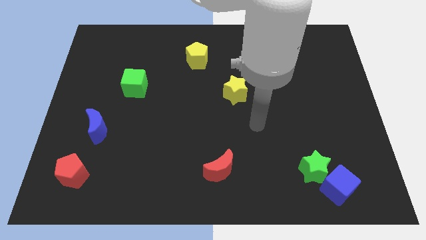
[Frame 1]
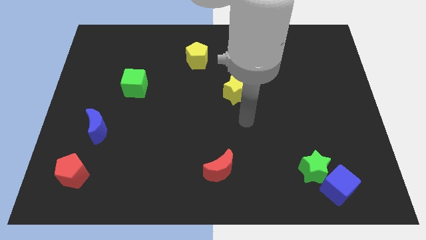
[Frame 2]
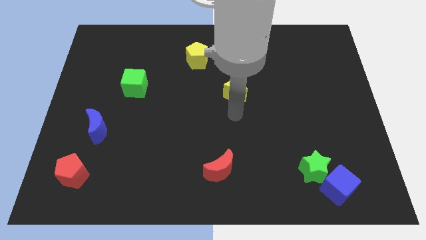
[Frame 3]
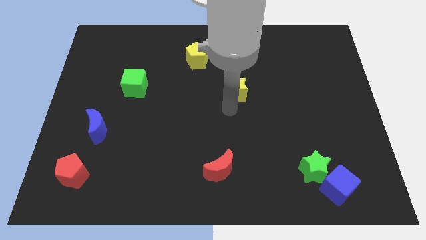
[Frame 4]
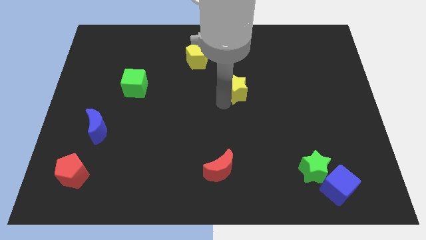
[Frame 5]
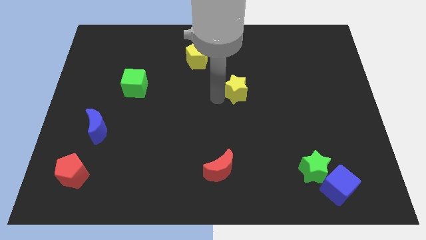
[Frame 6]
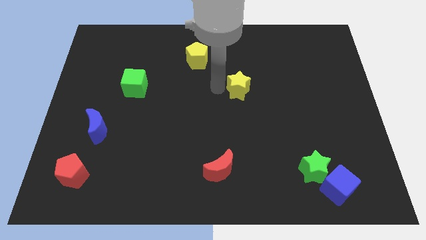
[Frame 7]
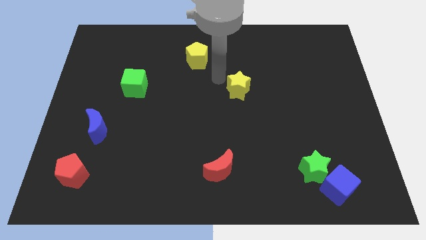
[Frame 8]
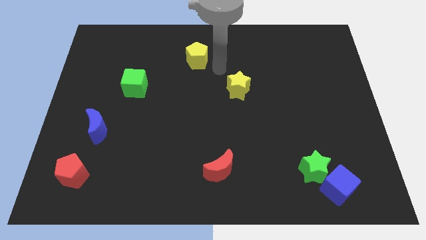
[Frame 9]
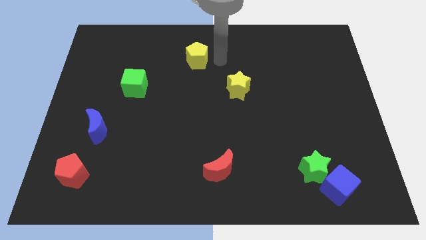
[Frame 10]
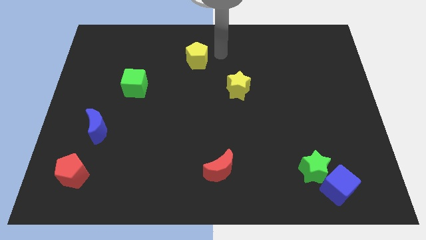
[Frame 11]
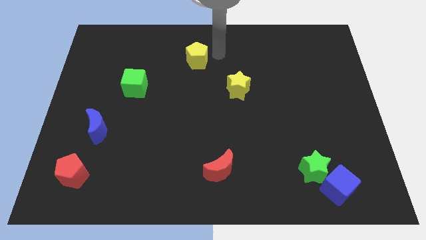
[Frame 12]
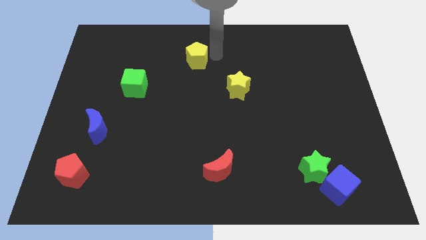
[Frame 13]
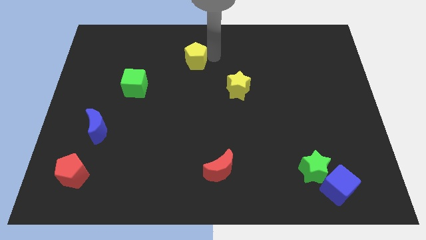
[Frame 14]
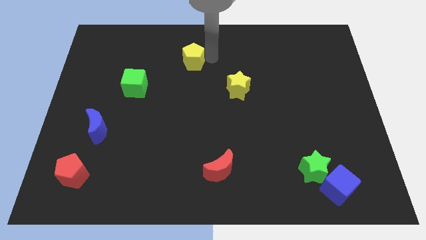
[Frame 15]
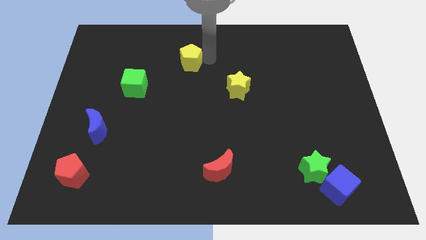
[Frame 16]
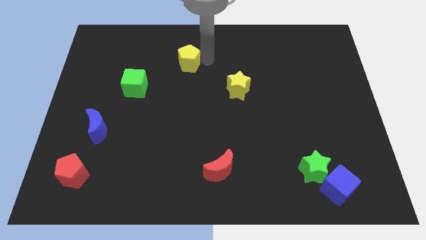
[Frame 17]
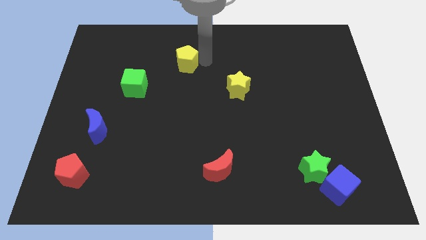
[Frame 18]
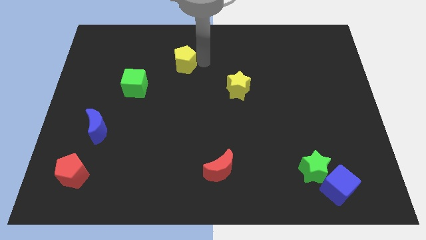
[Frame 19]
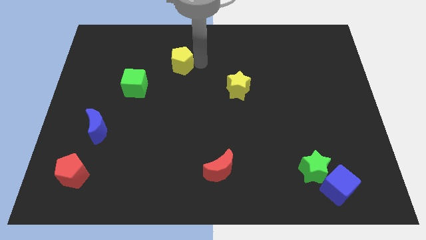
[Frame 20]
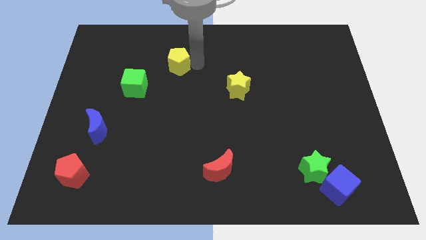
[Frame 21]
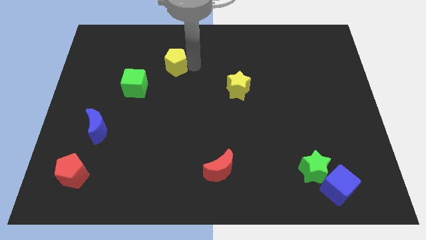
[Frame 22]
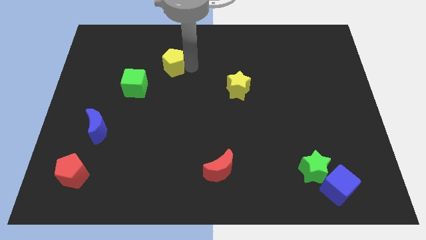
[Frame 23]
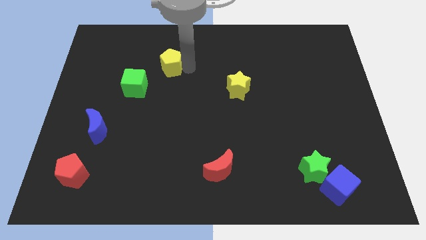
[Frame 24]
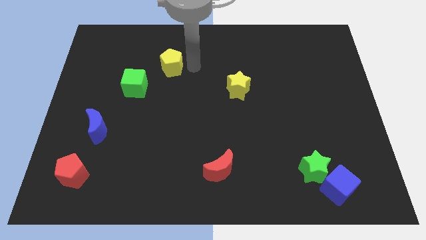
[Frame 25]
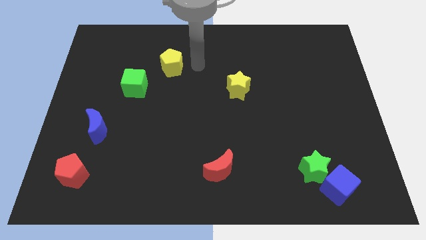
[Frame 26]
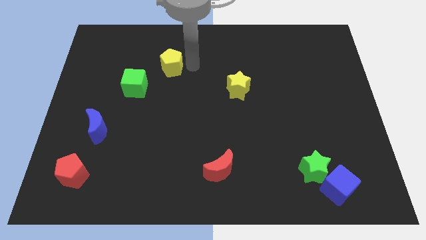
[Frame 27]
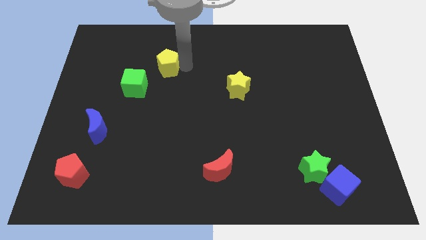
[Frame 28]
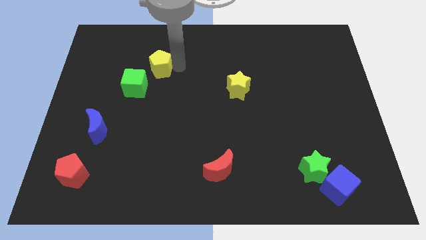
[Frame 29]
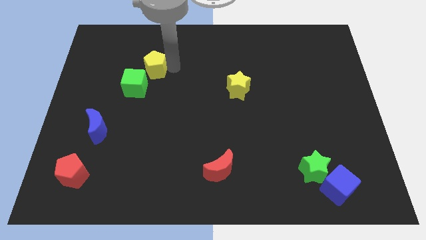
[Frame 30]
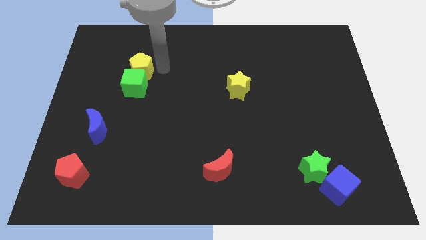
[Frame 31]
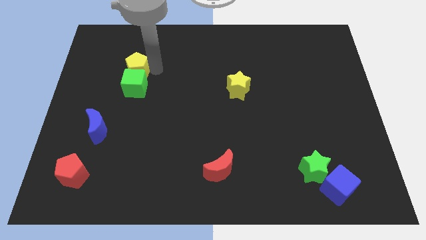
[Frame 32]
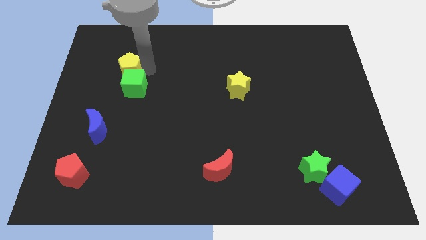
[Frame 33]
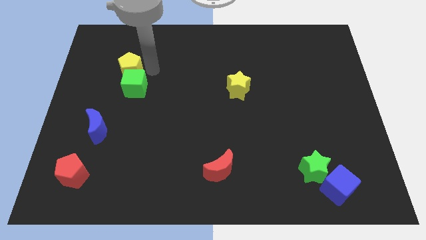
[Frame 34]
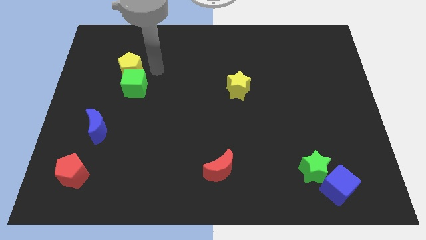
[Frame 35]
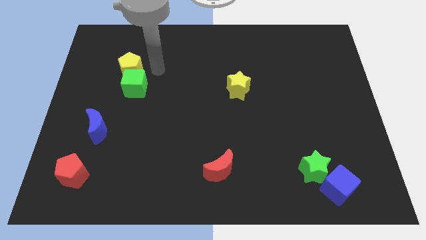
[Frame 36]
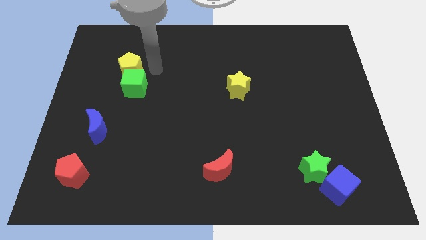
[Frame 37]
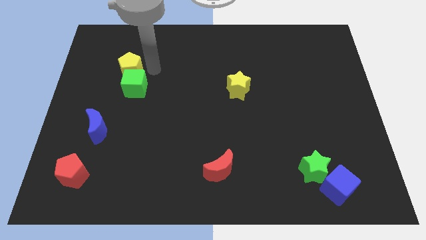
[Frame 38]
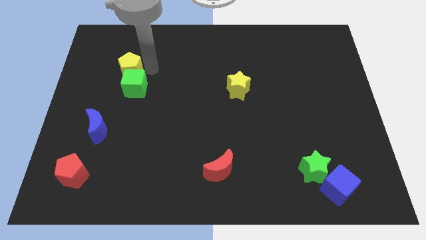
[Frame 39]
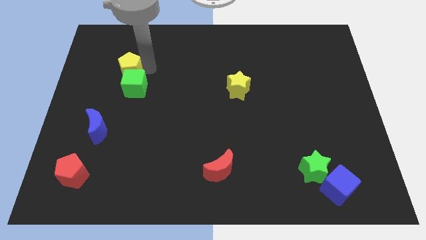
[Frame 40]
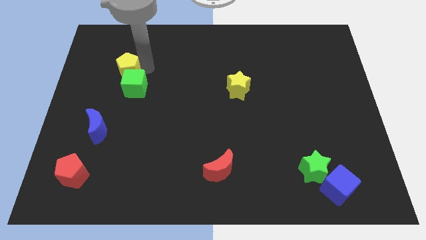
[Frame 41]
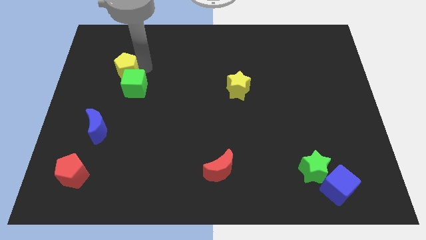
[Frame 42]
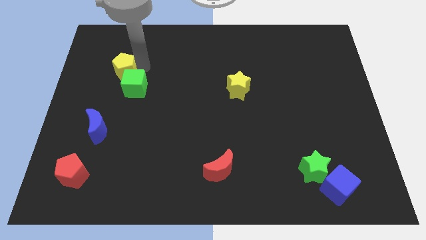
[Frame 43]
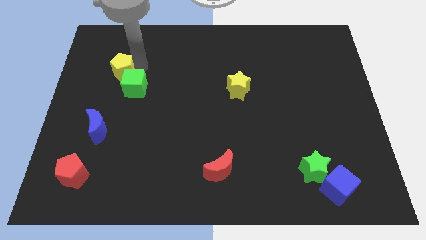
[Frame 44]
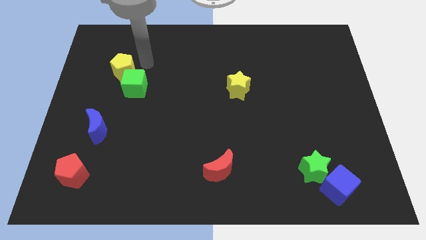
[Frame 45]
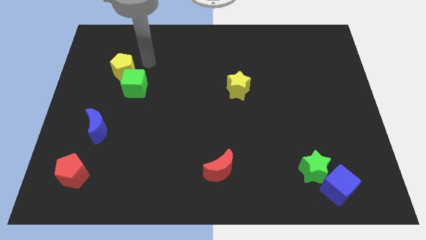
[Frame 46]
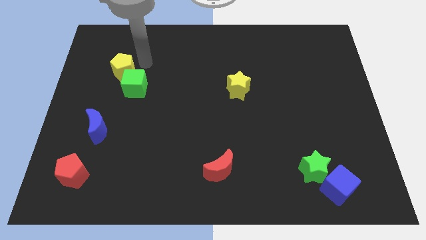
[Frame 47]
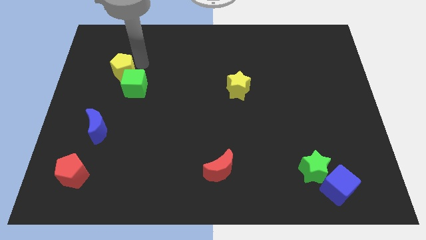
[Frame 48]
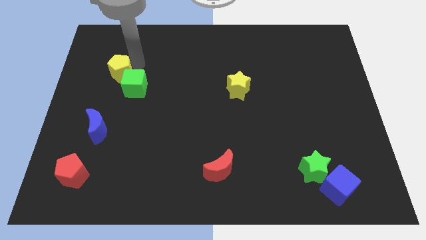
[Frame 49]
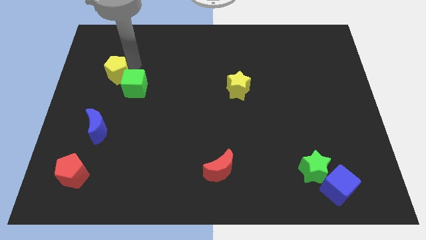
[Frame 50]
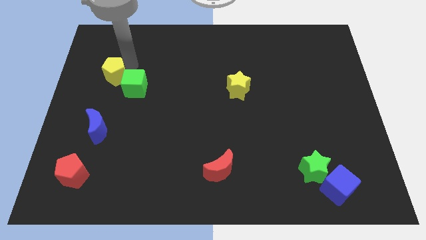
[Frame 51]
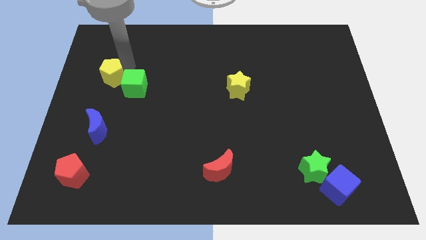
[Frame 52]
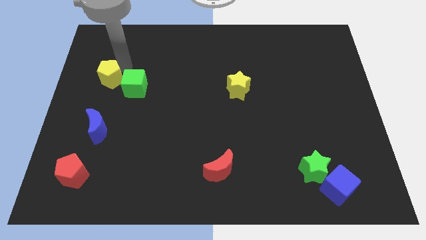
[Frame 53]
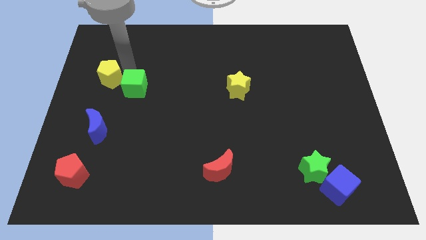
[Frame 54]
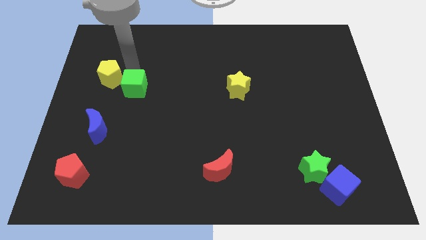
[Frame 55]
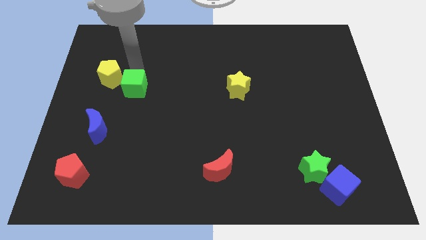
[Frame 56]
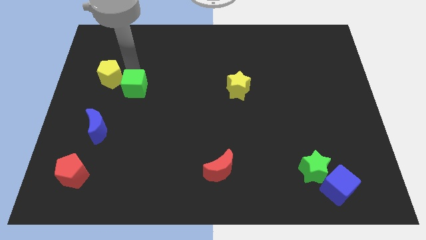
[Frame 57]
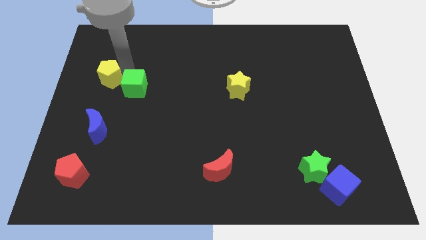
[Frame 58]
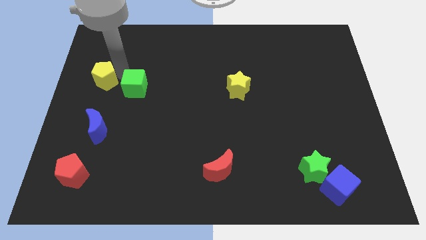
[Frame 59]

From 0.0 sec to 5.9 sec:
move the yellow pentagon to the left side of the board
